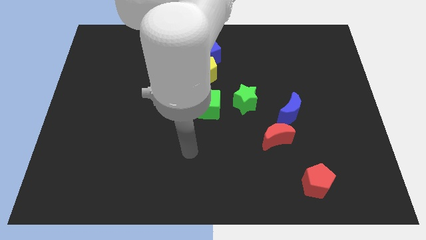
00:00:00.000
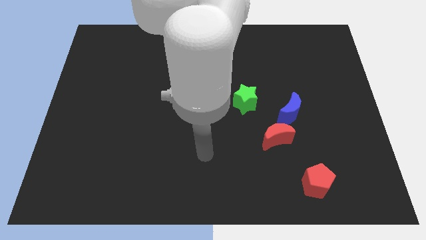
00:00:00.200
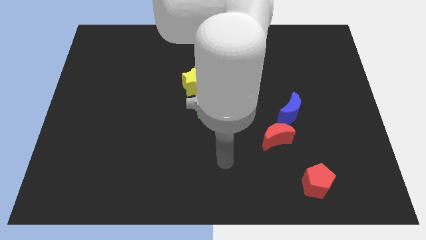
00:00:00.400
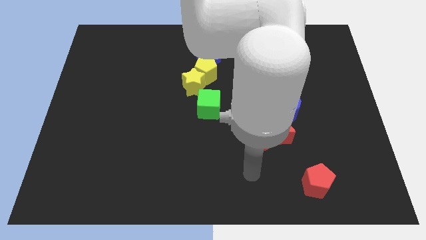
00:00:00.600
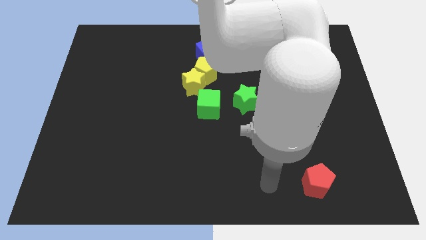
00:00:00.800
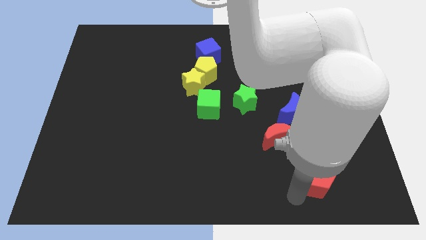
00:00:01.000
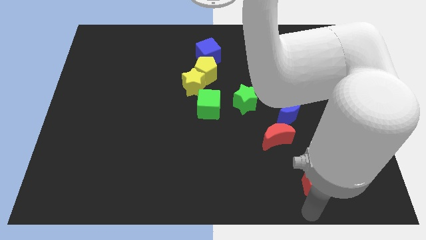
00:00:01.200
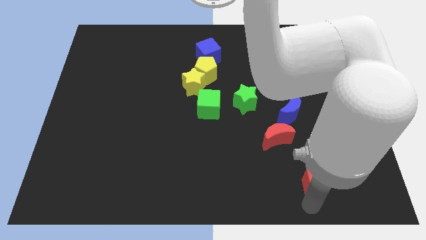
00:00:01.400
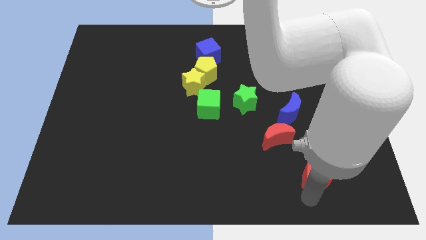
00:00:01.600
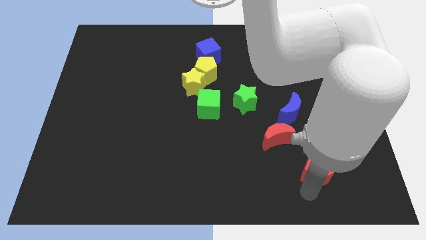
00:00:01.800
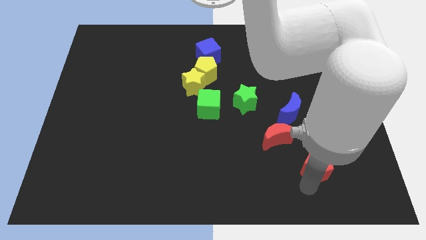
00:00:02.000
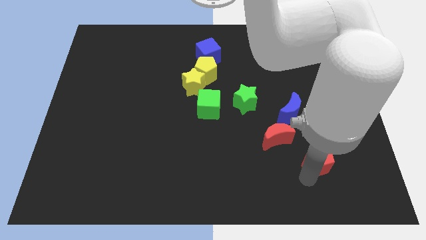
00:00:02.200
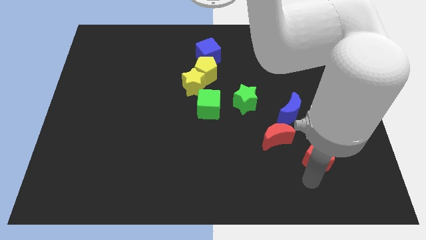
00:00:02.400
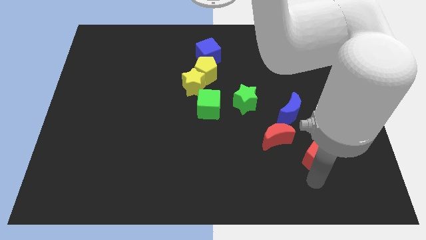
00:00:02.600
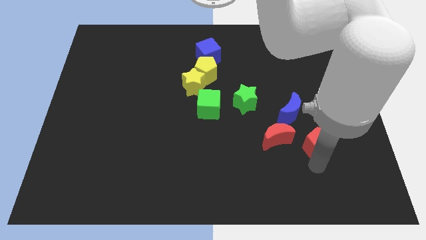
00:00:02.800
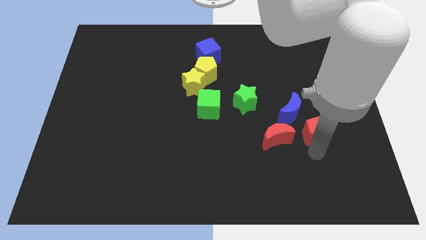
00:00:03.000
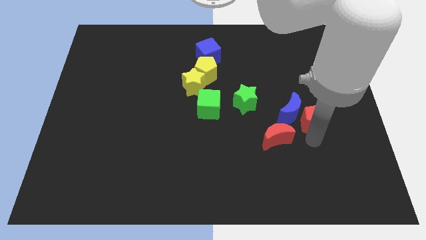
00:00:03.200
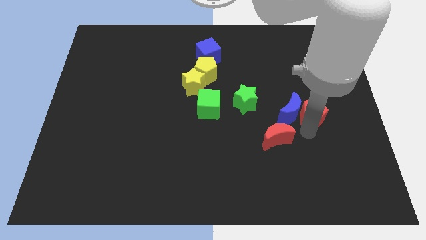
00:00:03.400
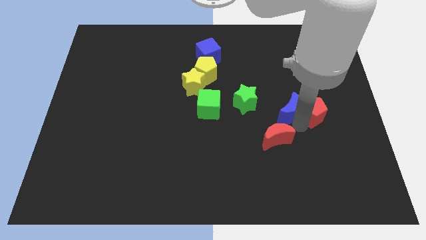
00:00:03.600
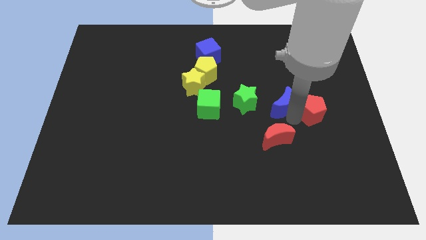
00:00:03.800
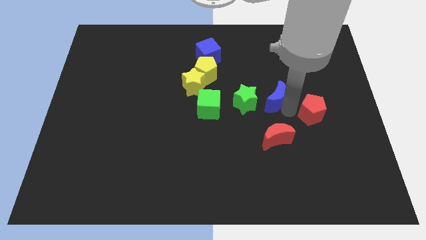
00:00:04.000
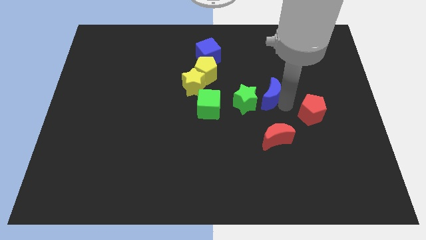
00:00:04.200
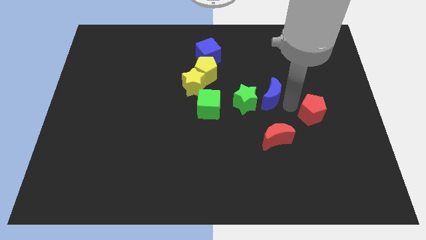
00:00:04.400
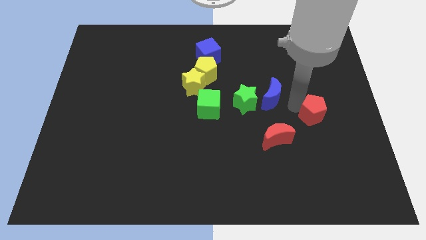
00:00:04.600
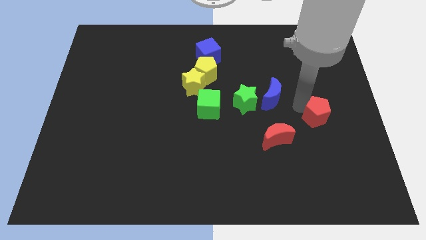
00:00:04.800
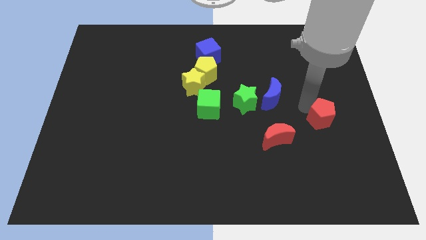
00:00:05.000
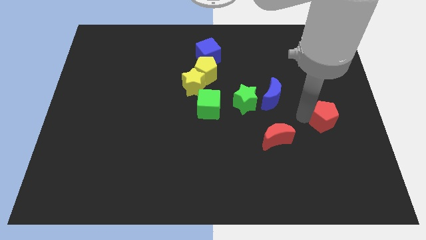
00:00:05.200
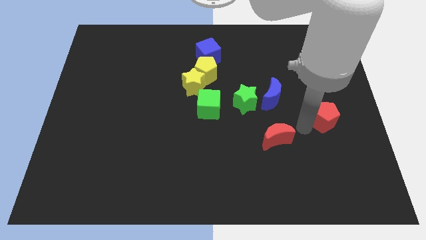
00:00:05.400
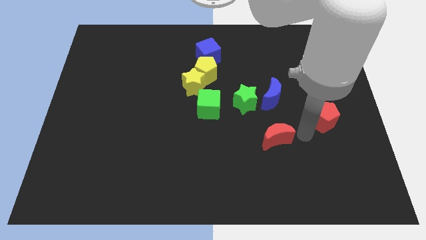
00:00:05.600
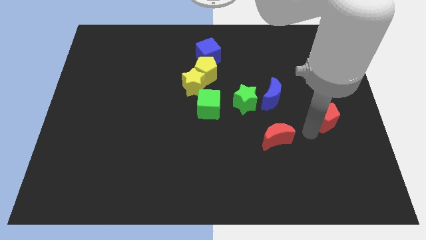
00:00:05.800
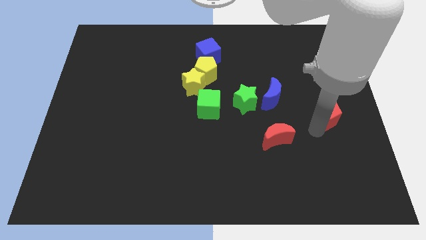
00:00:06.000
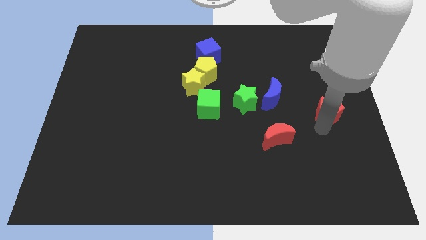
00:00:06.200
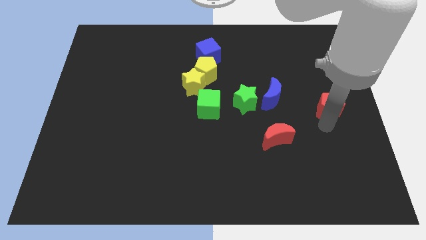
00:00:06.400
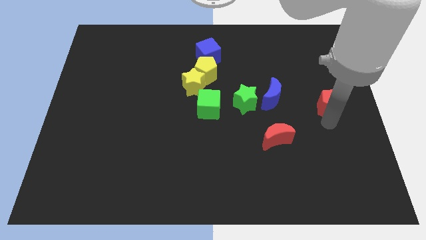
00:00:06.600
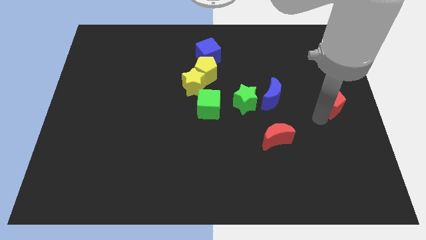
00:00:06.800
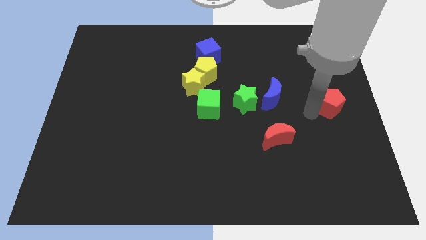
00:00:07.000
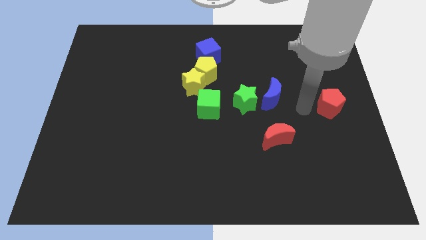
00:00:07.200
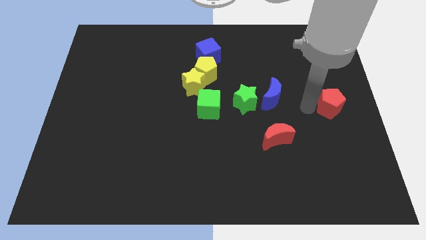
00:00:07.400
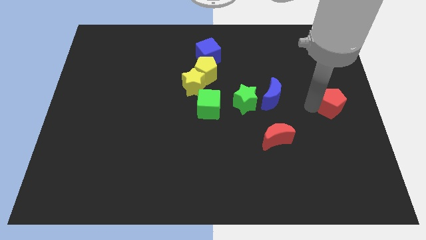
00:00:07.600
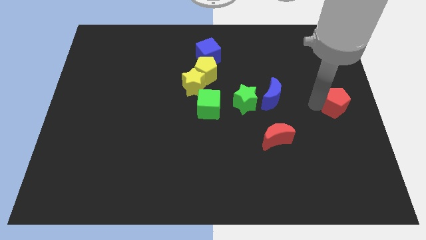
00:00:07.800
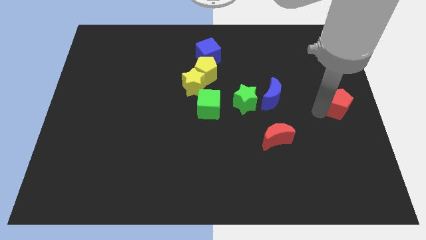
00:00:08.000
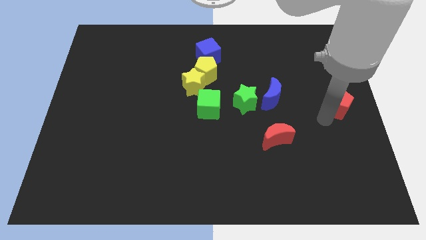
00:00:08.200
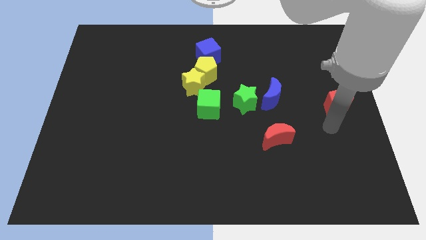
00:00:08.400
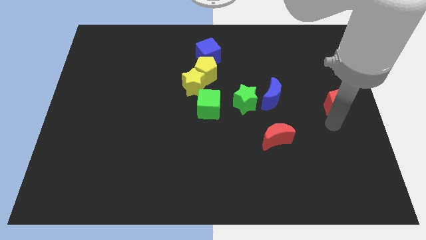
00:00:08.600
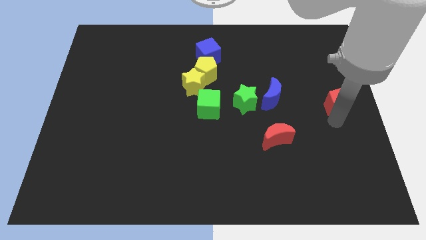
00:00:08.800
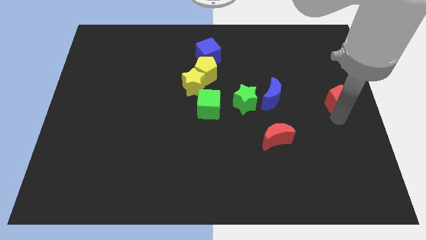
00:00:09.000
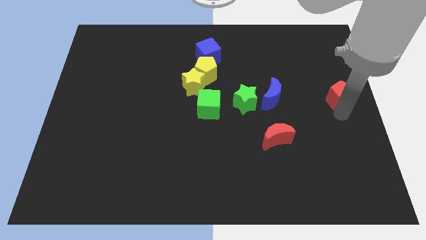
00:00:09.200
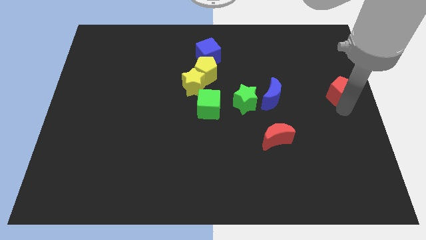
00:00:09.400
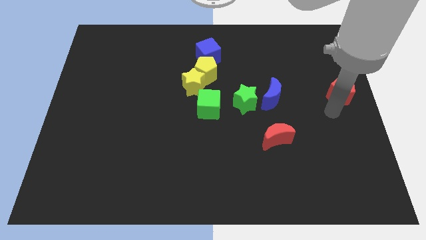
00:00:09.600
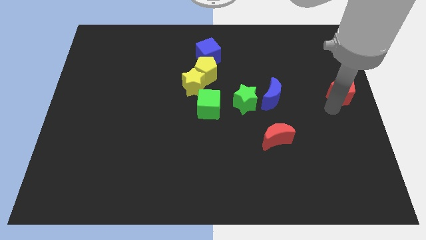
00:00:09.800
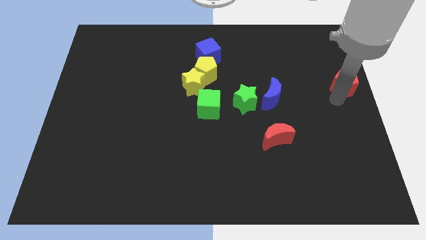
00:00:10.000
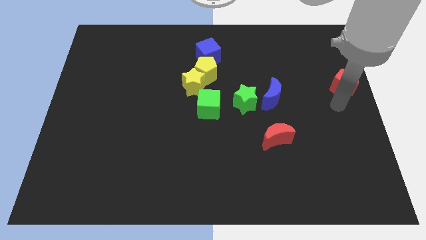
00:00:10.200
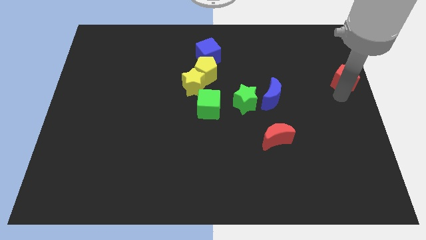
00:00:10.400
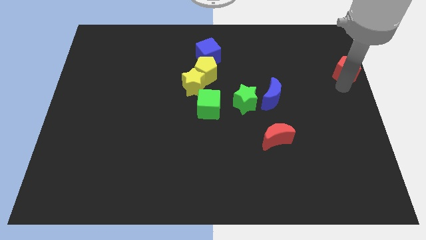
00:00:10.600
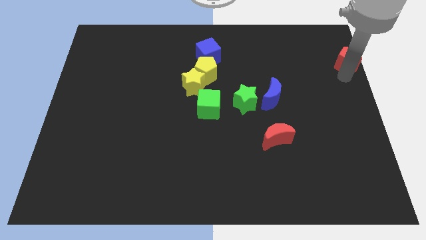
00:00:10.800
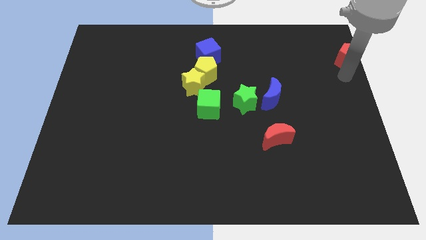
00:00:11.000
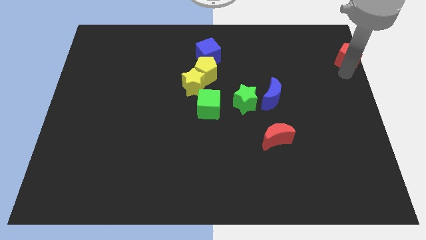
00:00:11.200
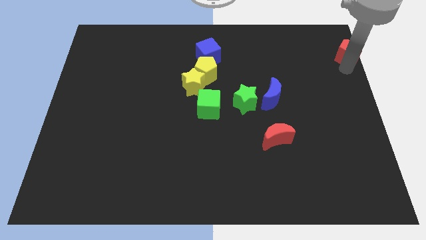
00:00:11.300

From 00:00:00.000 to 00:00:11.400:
put the red pentagon to the top right

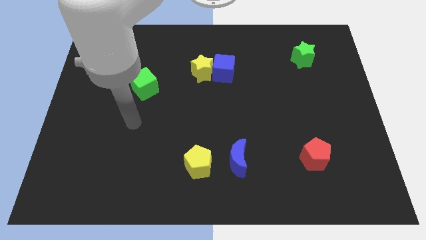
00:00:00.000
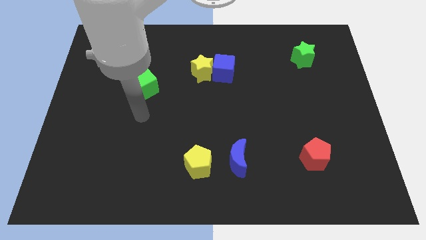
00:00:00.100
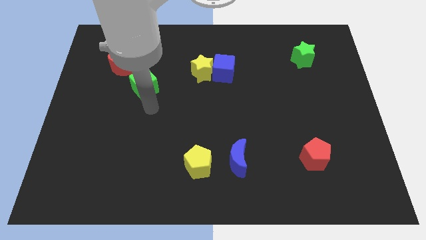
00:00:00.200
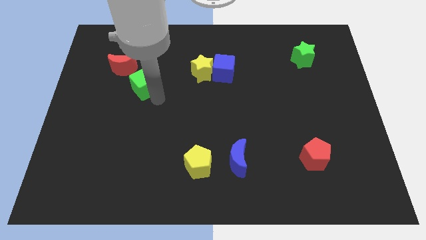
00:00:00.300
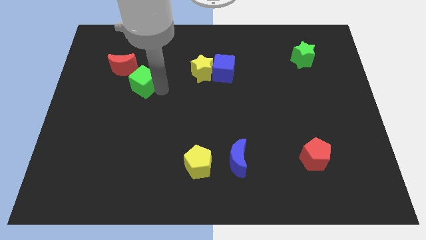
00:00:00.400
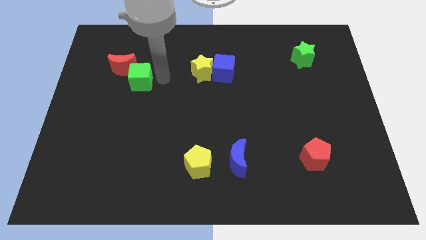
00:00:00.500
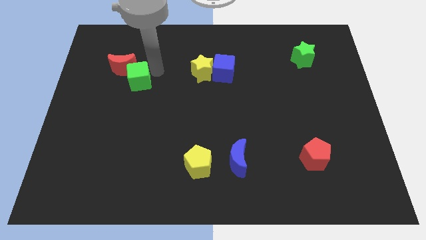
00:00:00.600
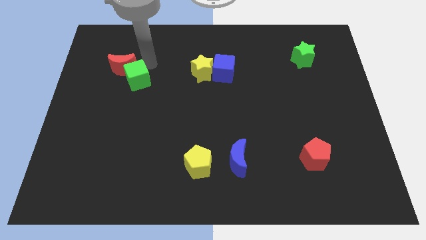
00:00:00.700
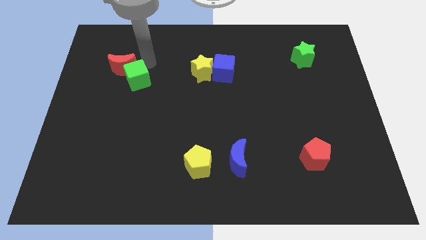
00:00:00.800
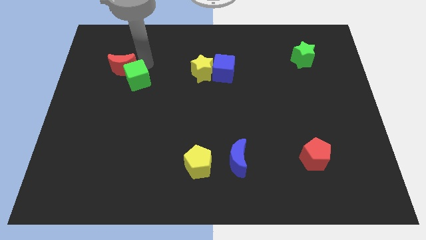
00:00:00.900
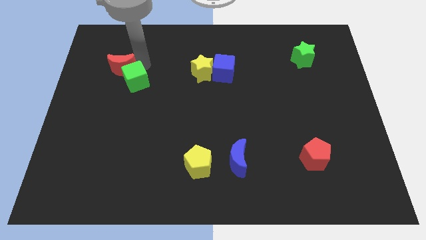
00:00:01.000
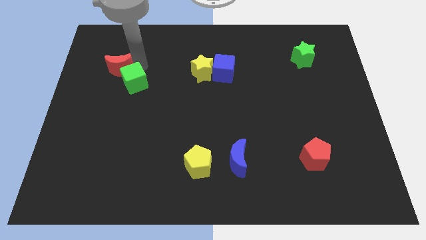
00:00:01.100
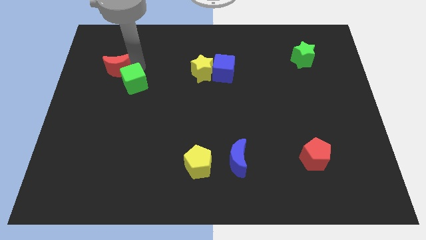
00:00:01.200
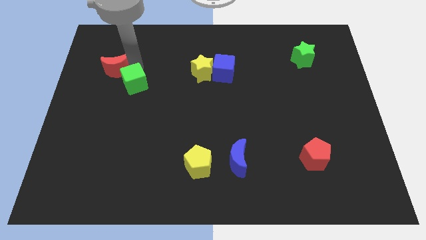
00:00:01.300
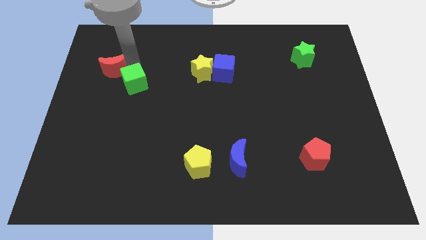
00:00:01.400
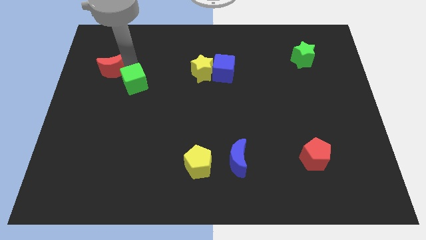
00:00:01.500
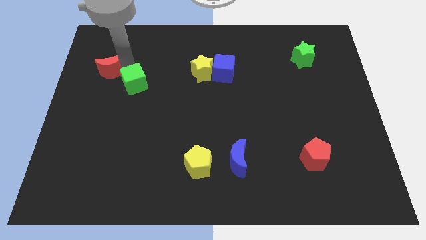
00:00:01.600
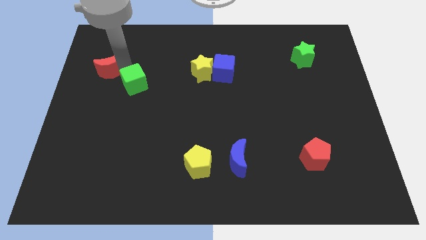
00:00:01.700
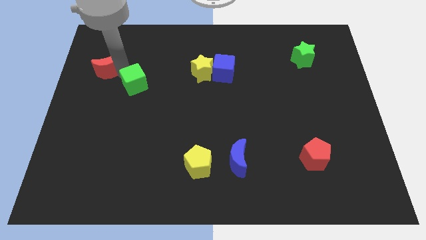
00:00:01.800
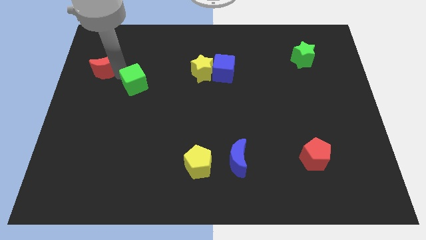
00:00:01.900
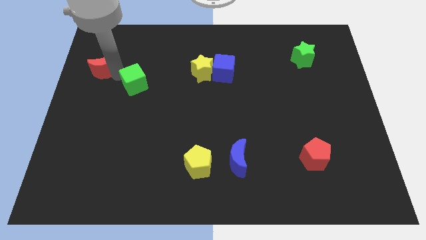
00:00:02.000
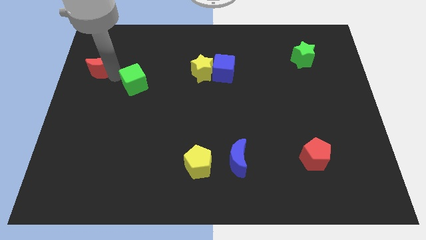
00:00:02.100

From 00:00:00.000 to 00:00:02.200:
push the red moon to the left side of the board
